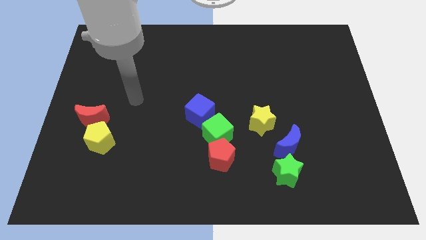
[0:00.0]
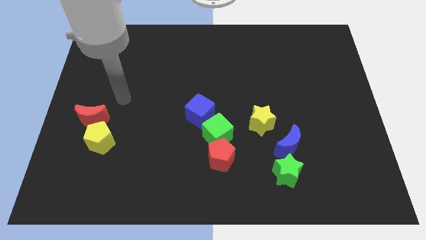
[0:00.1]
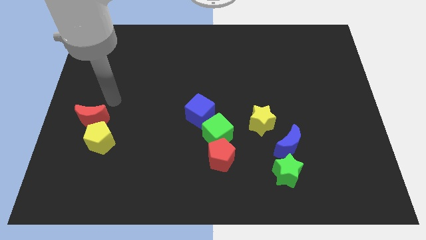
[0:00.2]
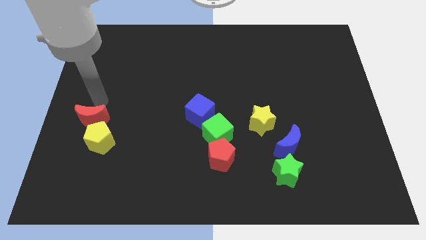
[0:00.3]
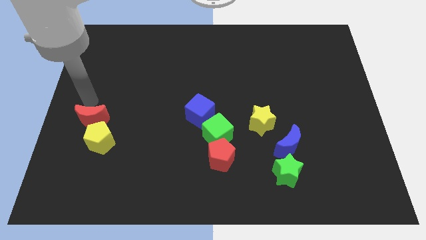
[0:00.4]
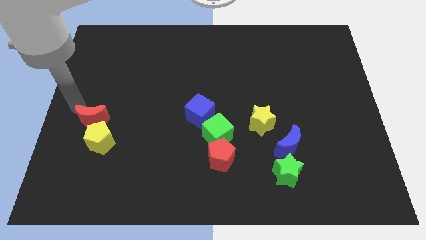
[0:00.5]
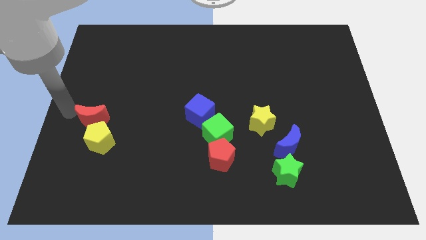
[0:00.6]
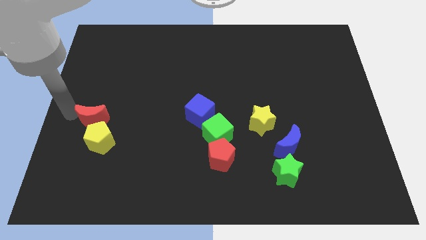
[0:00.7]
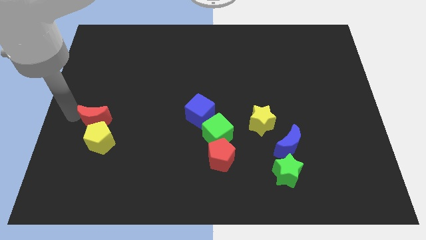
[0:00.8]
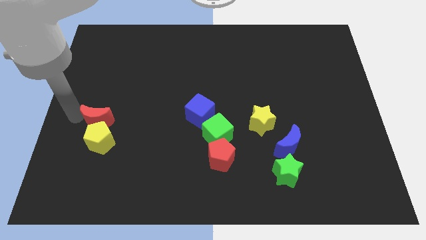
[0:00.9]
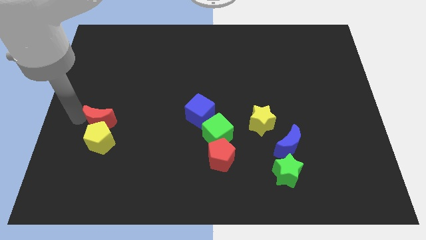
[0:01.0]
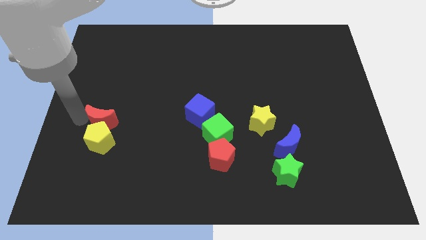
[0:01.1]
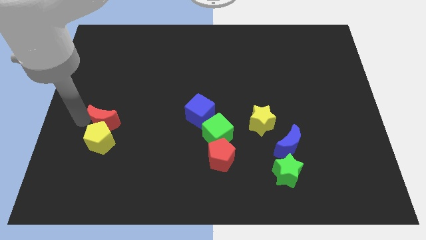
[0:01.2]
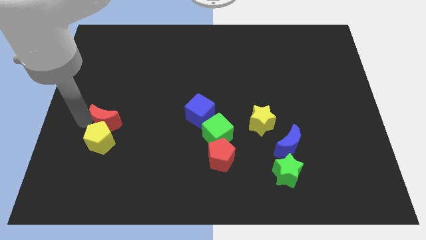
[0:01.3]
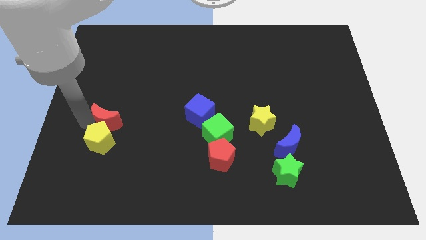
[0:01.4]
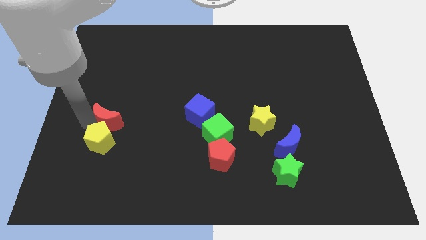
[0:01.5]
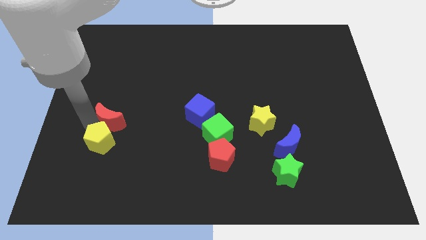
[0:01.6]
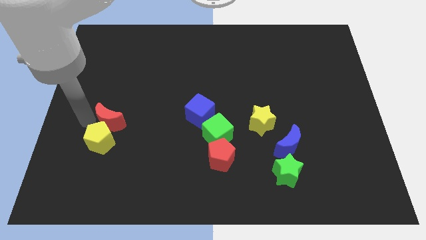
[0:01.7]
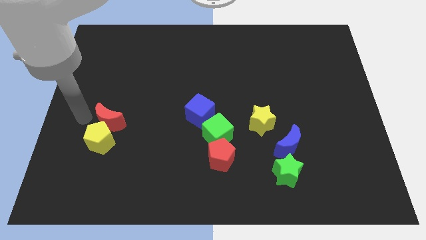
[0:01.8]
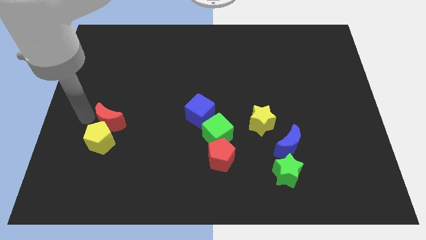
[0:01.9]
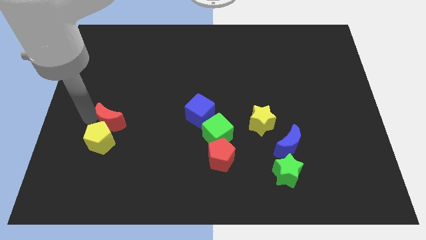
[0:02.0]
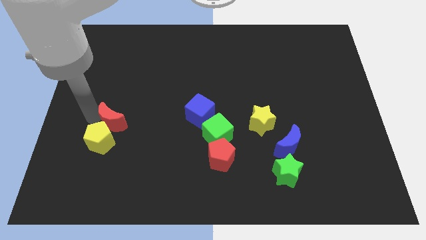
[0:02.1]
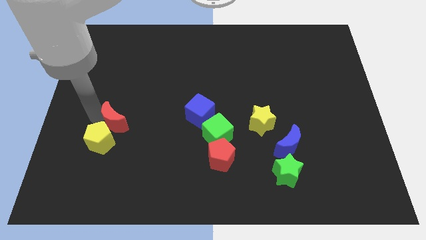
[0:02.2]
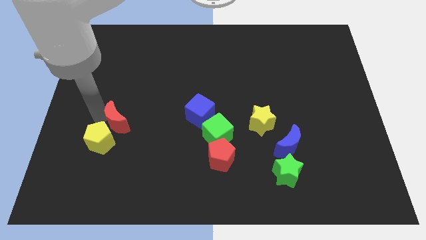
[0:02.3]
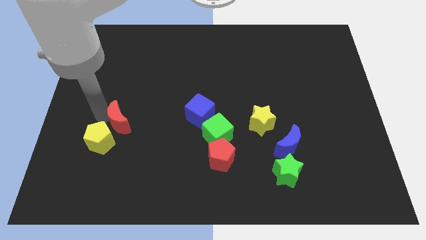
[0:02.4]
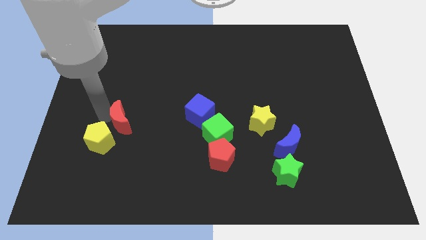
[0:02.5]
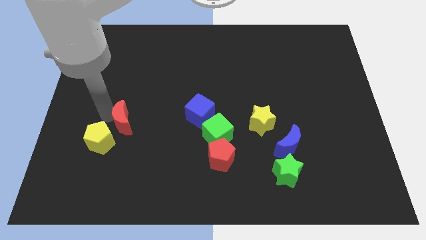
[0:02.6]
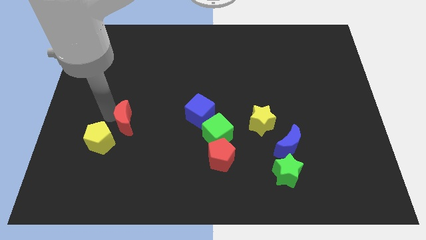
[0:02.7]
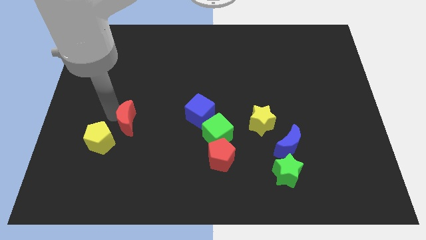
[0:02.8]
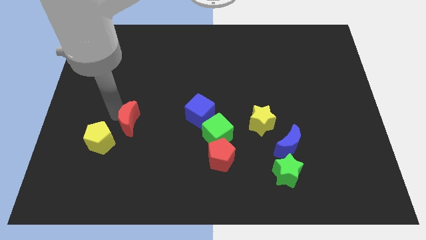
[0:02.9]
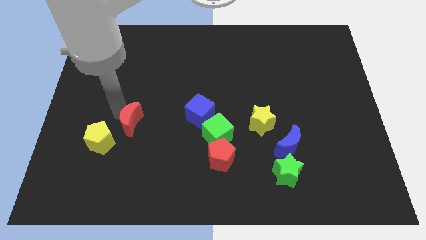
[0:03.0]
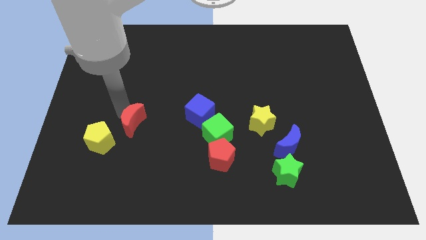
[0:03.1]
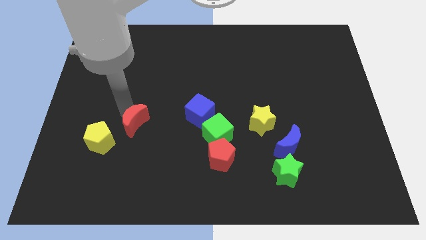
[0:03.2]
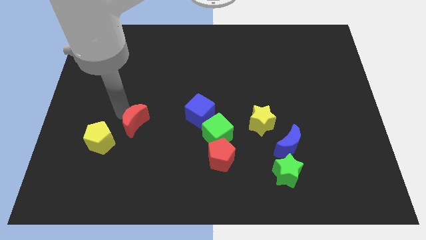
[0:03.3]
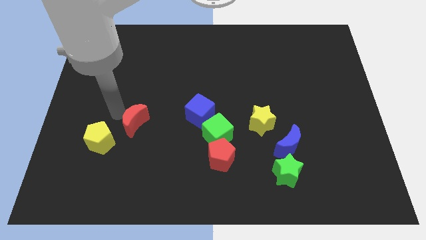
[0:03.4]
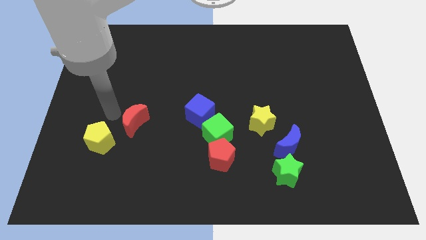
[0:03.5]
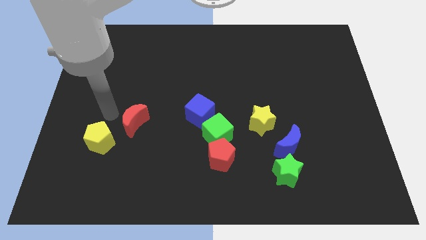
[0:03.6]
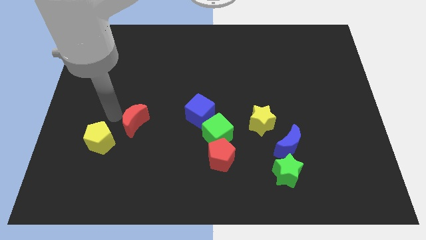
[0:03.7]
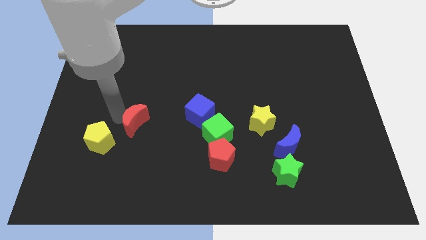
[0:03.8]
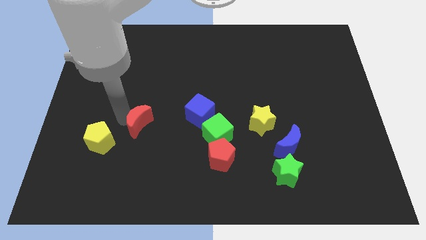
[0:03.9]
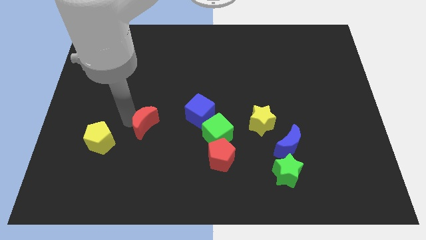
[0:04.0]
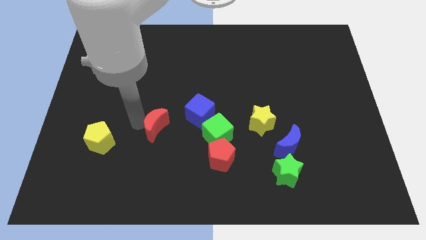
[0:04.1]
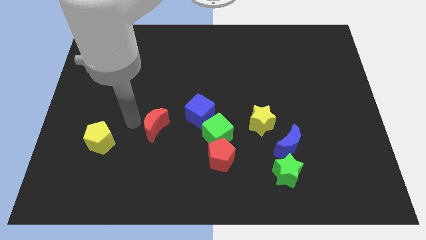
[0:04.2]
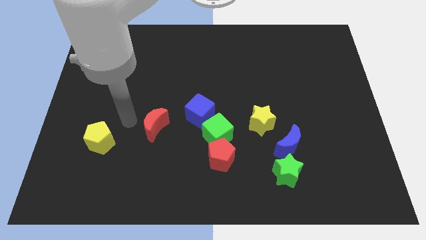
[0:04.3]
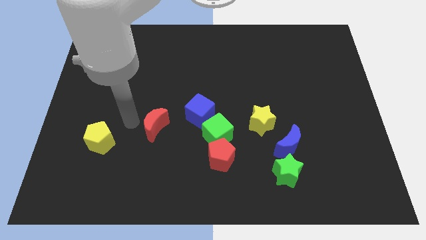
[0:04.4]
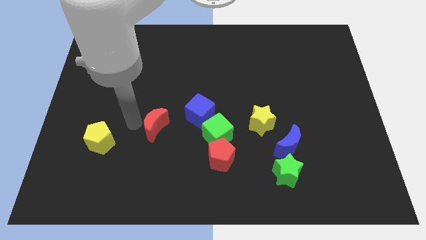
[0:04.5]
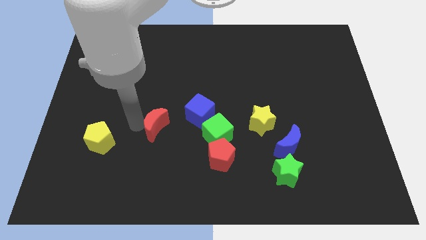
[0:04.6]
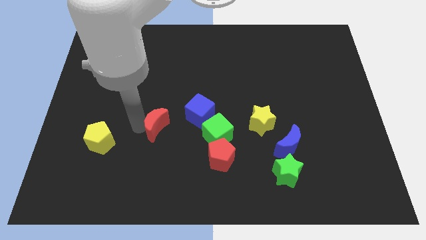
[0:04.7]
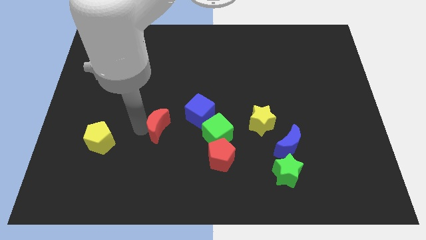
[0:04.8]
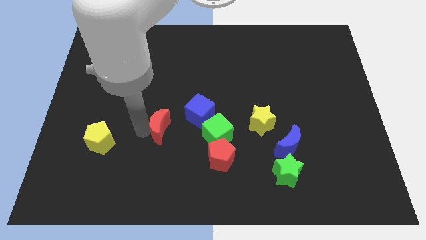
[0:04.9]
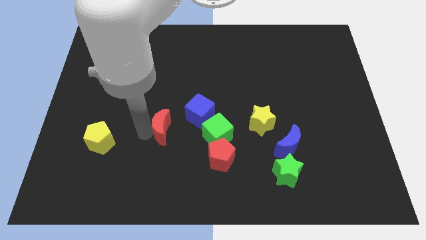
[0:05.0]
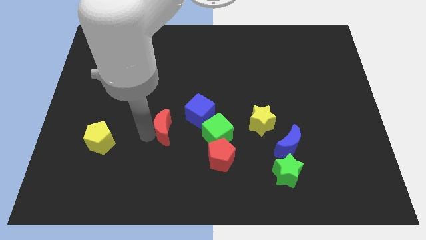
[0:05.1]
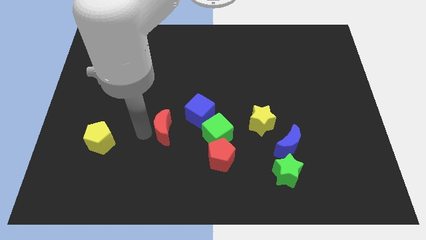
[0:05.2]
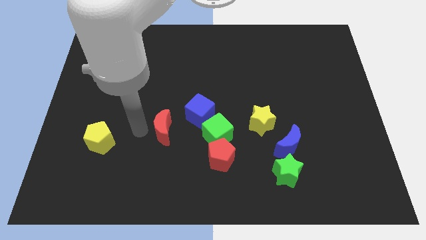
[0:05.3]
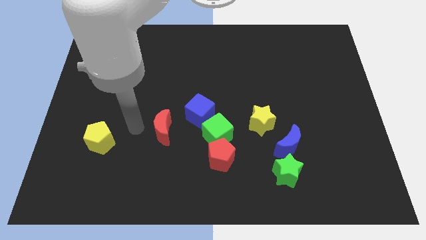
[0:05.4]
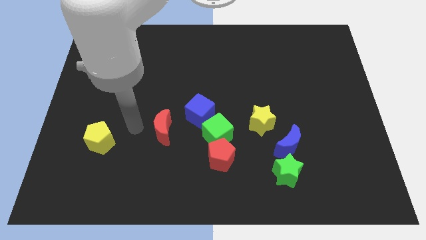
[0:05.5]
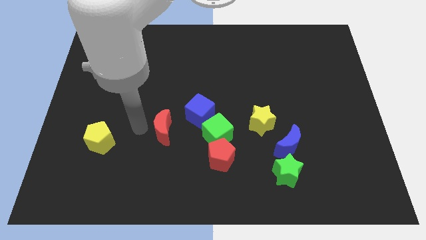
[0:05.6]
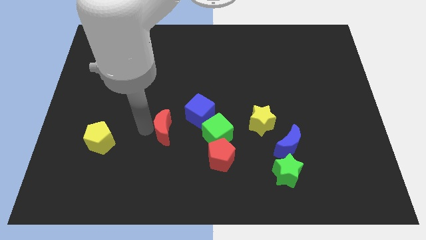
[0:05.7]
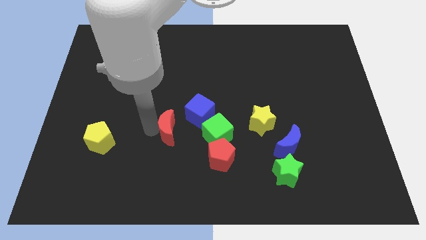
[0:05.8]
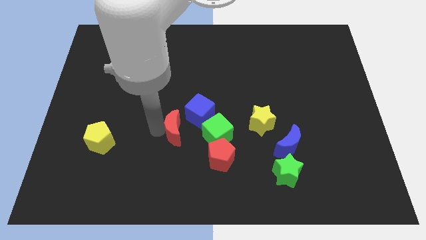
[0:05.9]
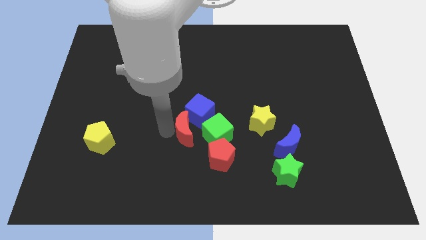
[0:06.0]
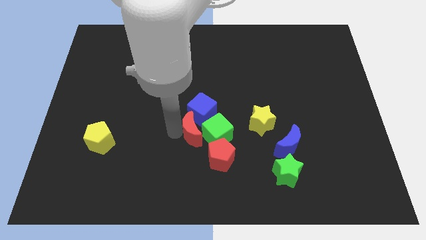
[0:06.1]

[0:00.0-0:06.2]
put the red moon close to the green cube

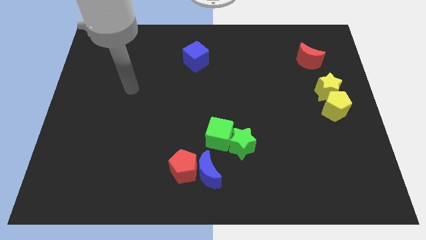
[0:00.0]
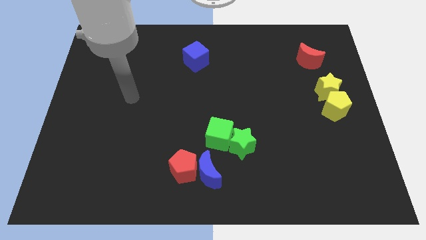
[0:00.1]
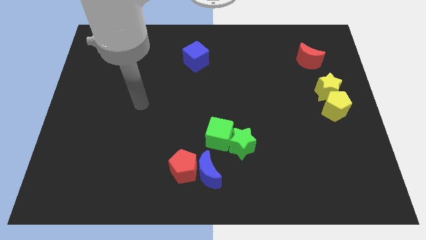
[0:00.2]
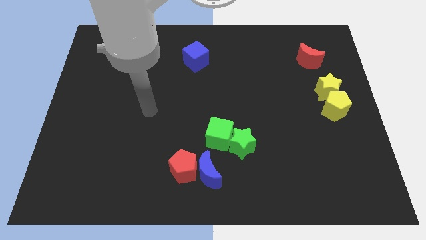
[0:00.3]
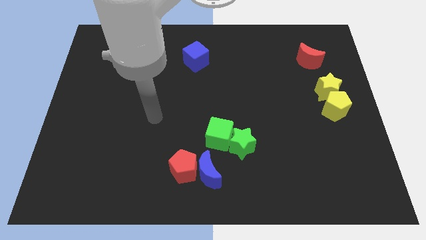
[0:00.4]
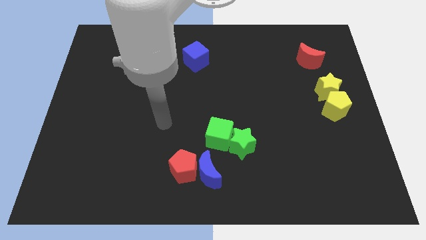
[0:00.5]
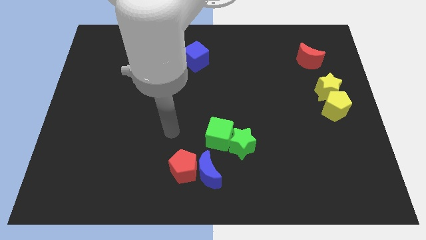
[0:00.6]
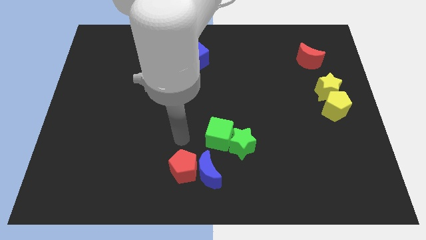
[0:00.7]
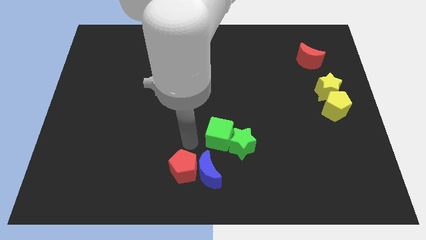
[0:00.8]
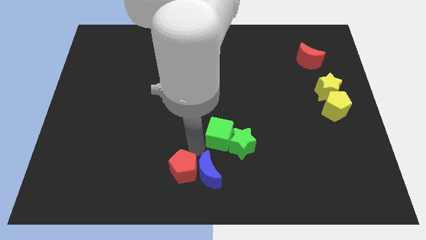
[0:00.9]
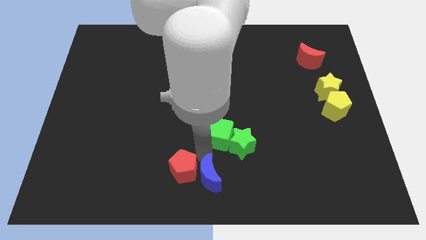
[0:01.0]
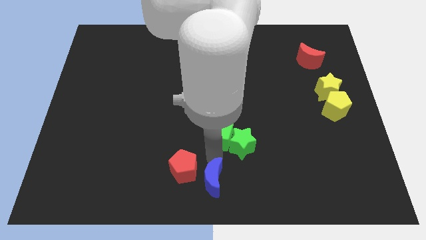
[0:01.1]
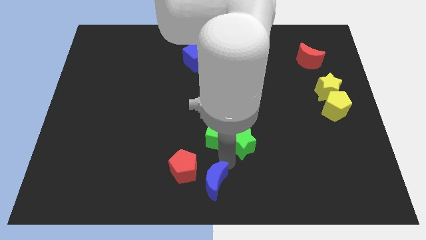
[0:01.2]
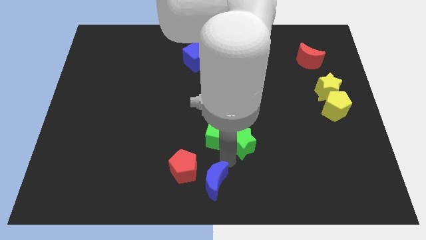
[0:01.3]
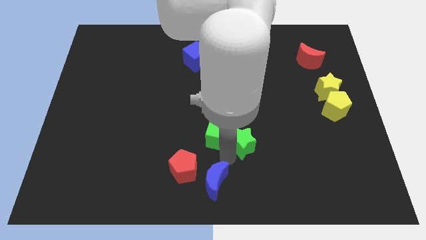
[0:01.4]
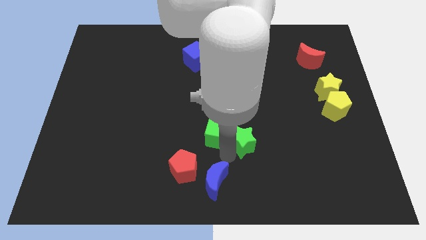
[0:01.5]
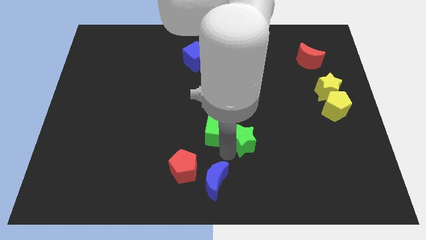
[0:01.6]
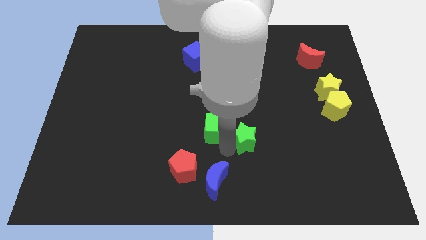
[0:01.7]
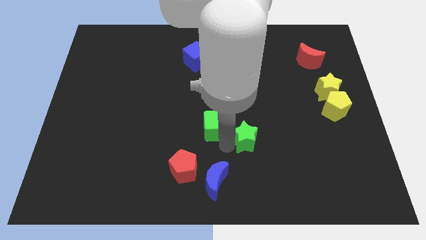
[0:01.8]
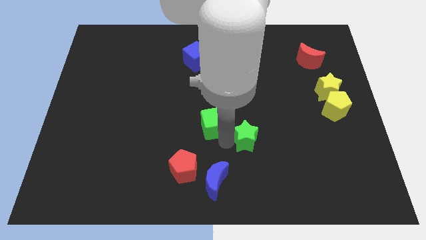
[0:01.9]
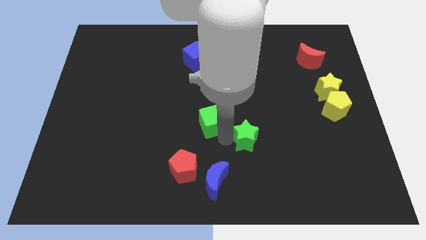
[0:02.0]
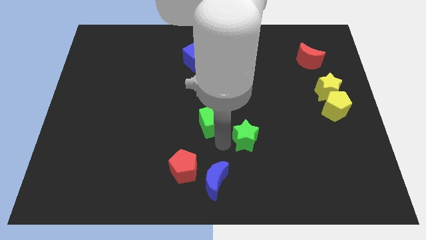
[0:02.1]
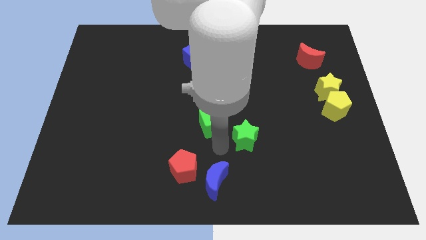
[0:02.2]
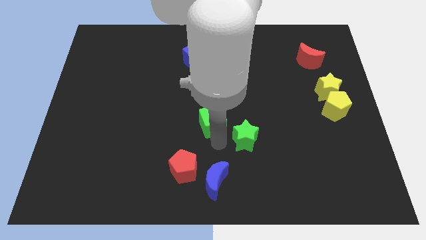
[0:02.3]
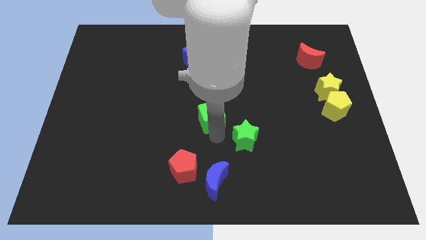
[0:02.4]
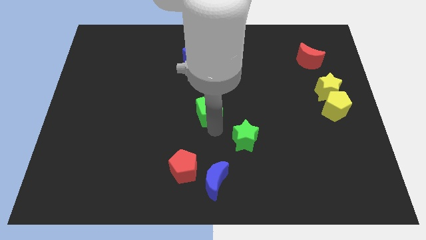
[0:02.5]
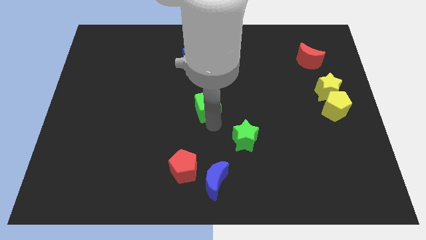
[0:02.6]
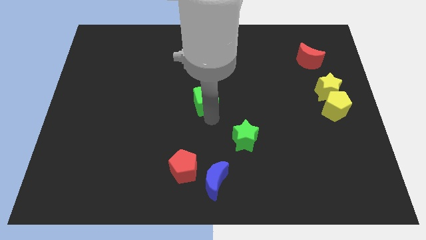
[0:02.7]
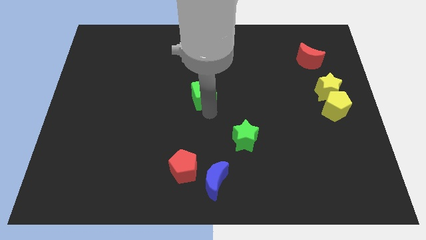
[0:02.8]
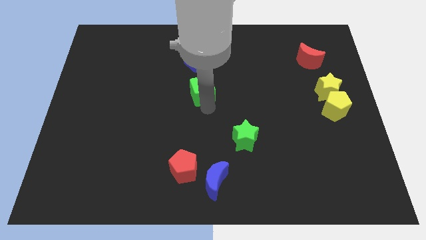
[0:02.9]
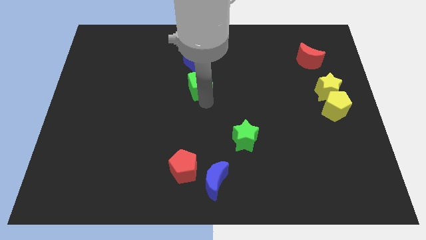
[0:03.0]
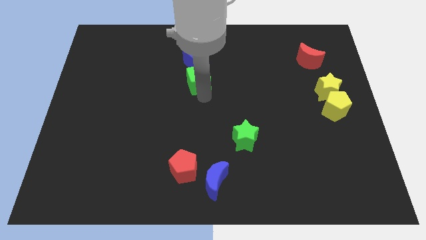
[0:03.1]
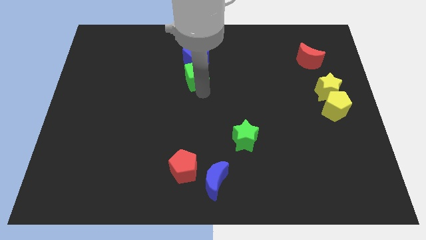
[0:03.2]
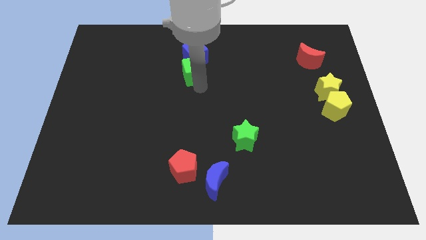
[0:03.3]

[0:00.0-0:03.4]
push the green cube close to the blue cube
